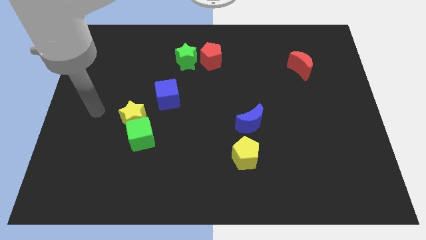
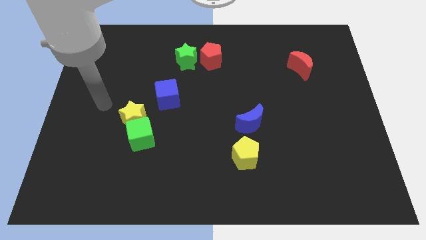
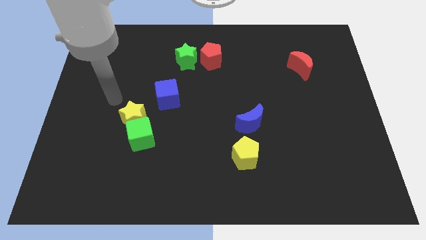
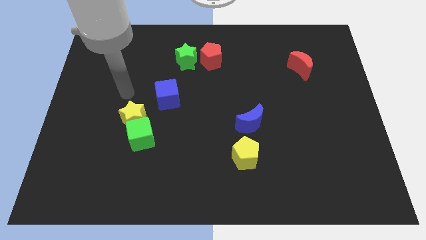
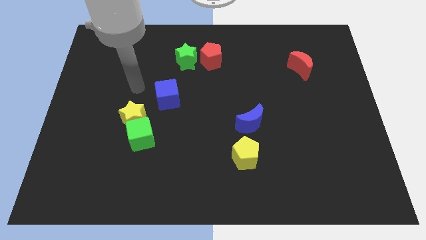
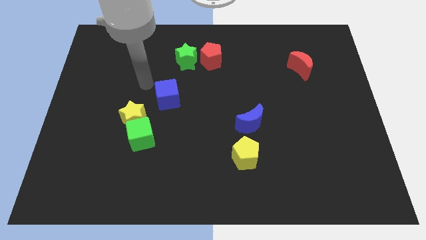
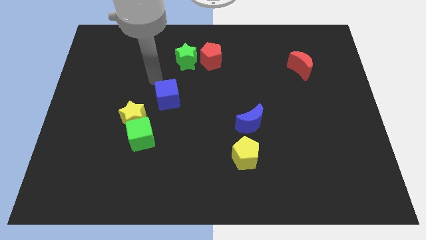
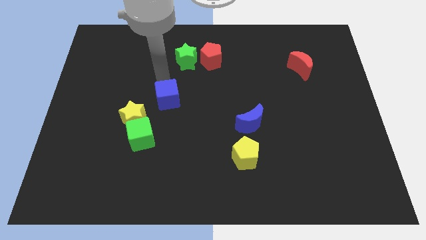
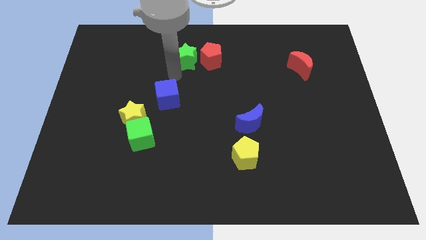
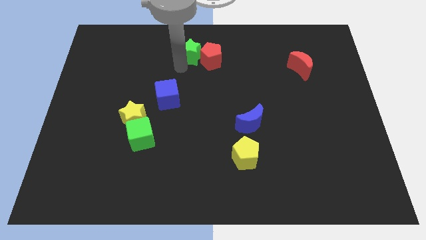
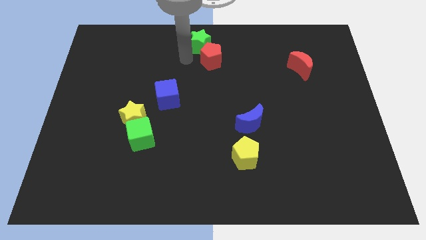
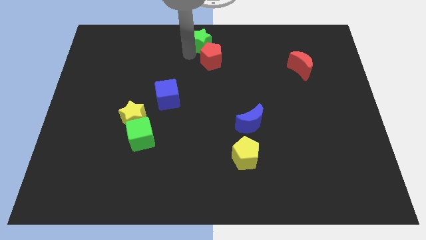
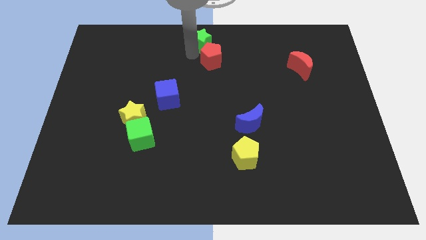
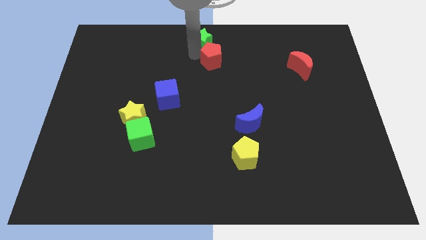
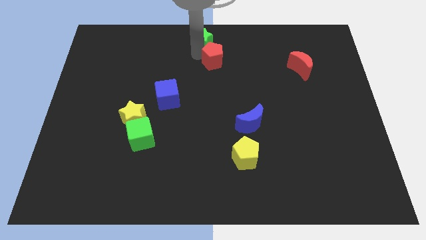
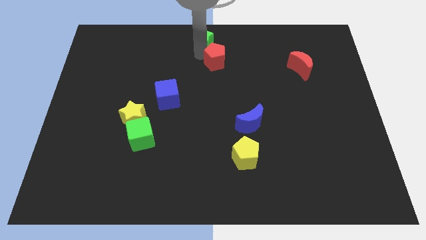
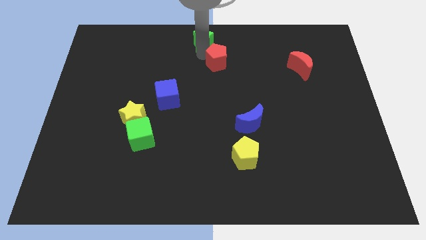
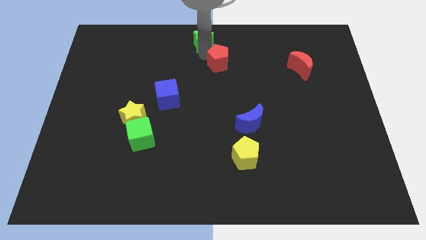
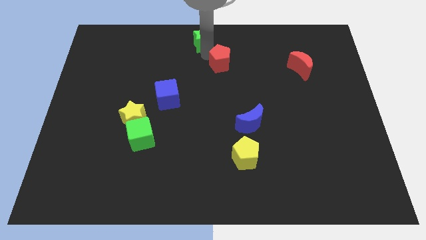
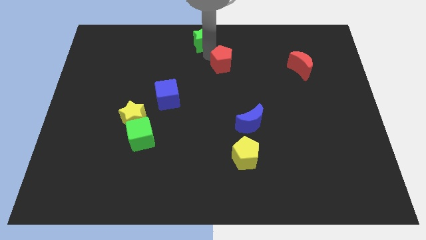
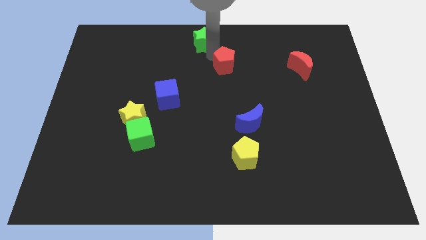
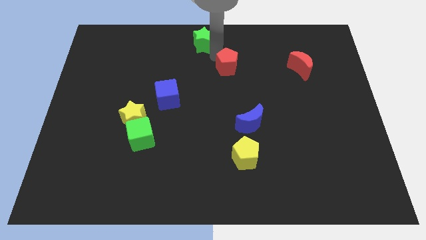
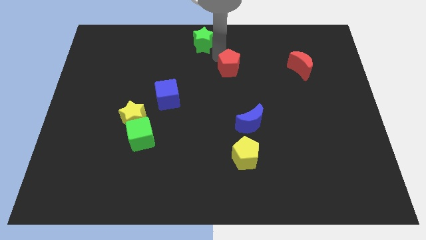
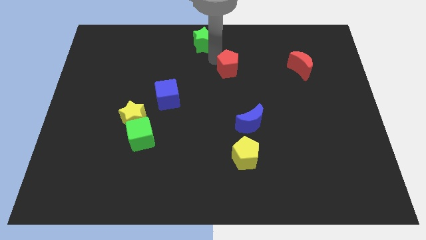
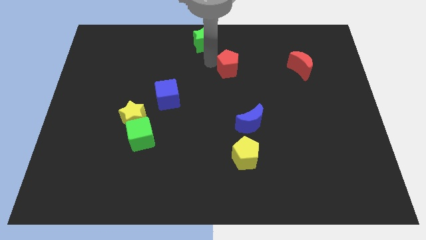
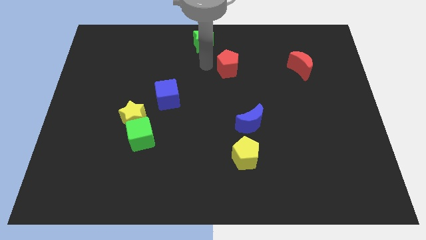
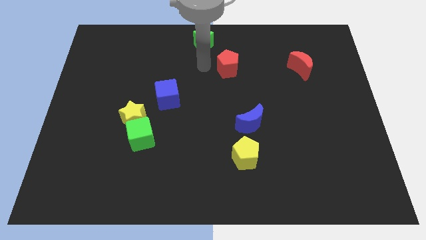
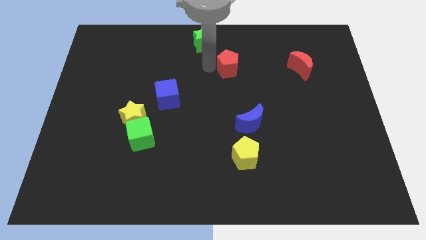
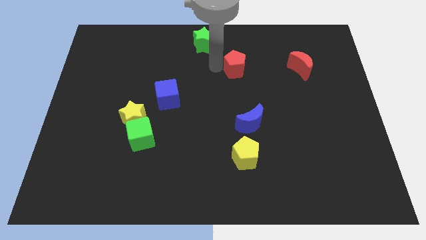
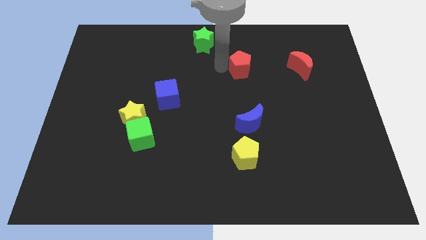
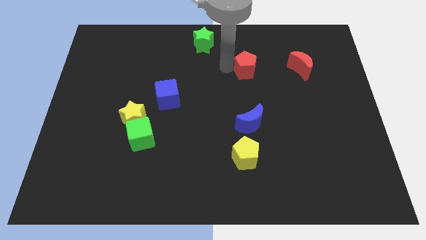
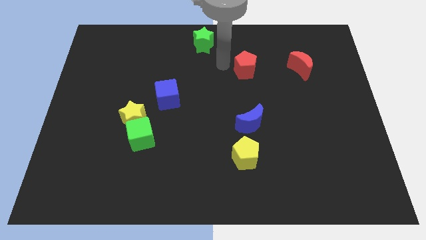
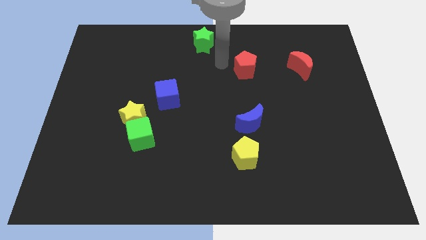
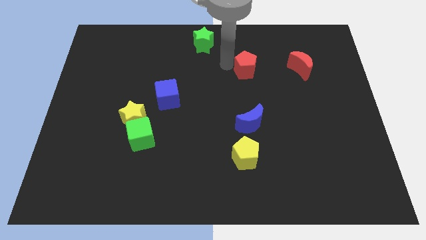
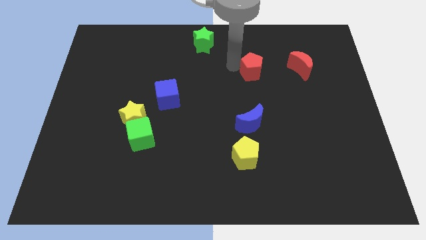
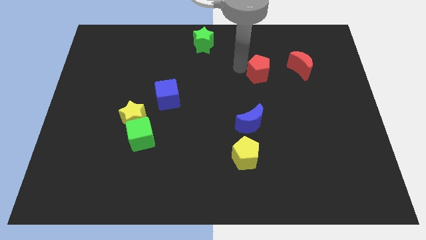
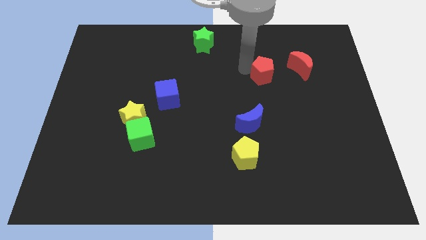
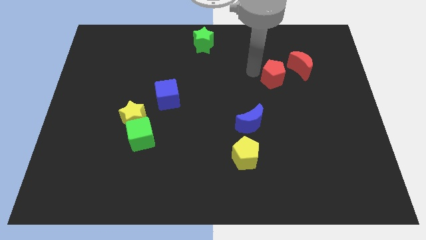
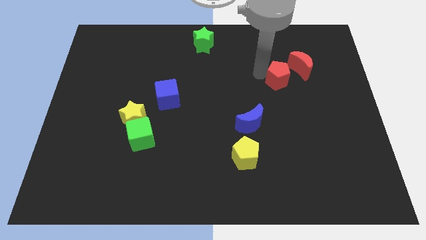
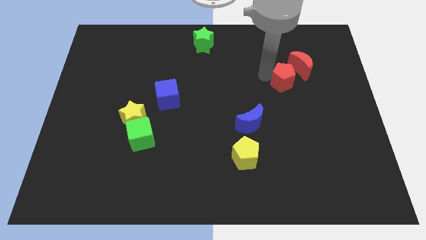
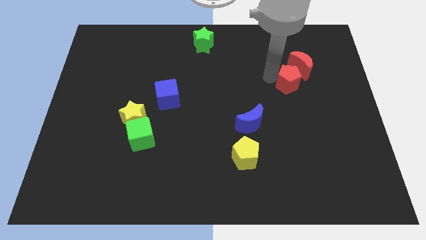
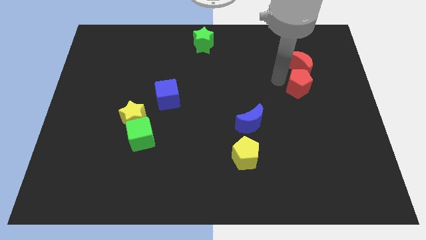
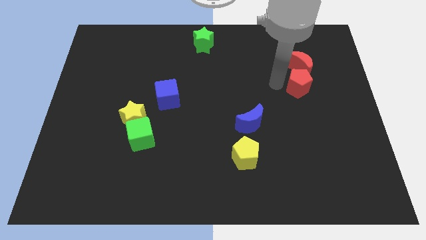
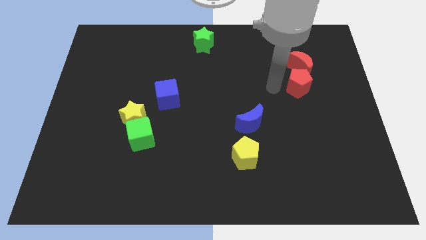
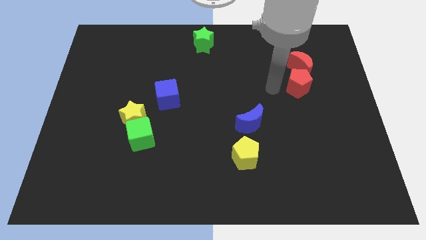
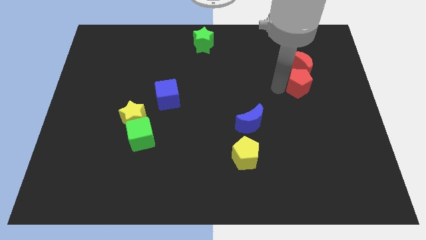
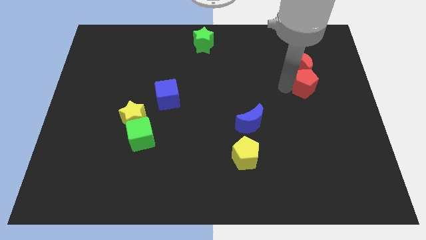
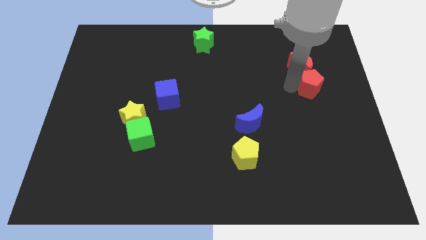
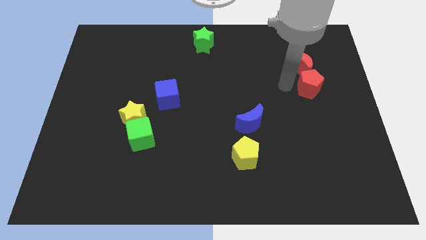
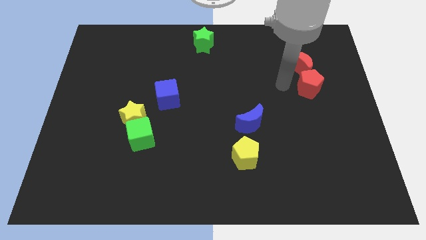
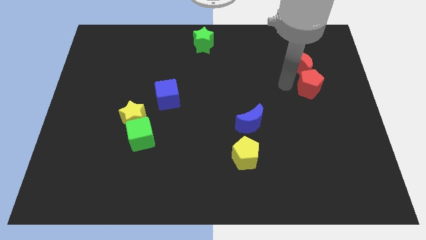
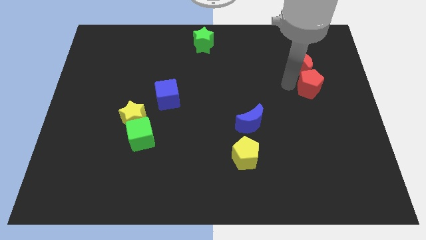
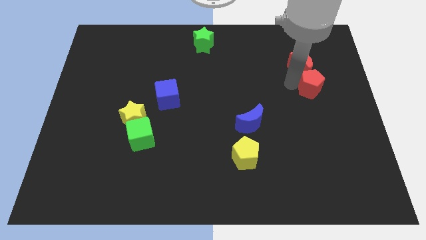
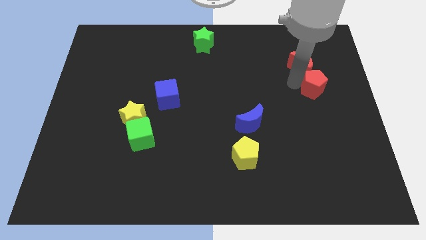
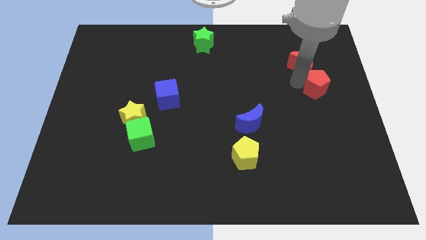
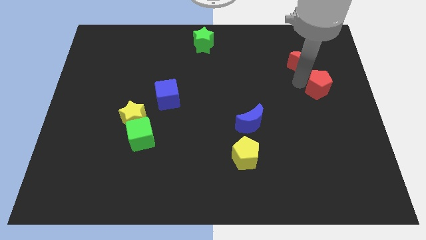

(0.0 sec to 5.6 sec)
slide the red pentagon to the right side
